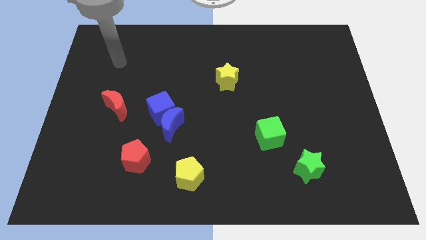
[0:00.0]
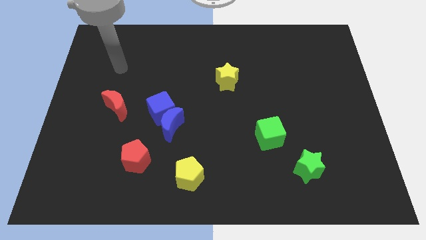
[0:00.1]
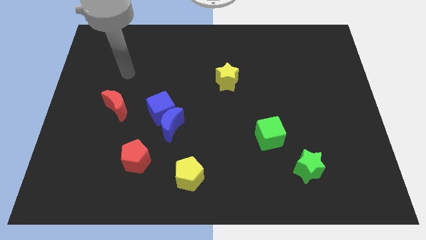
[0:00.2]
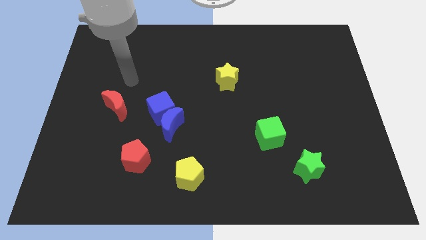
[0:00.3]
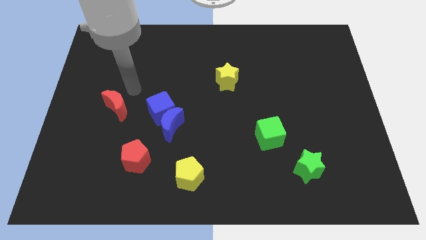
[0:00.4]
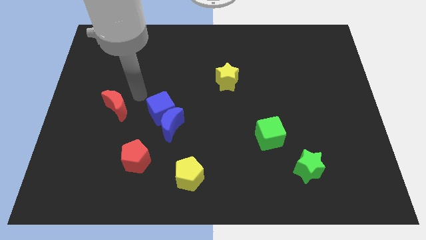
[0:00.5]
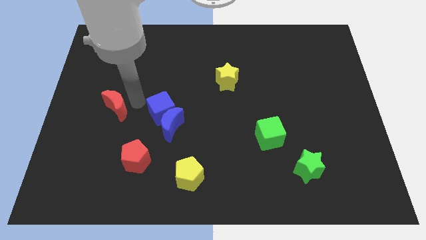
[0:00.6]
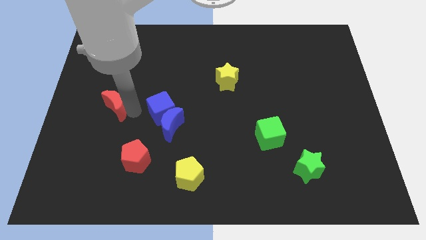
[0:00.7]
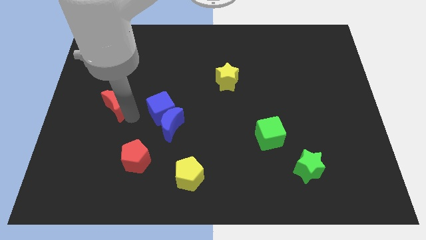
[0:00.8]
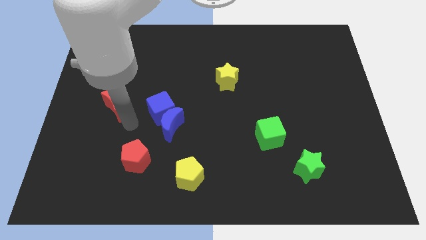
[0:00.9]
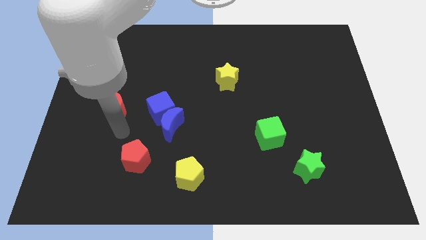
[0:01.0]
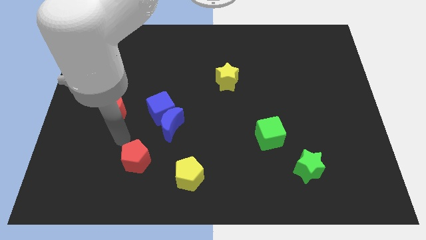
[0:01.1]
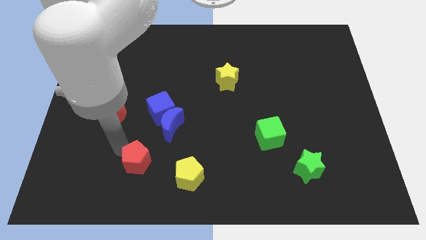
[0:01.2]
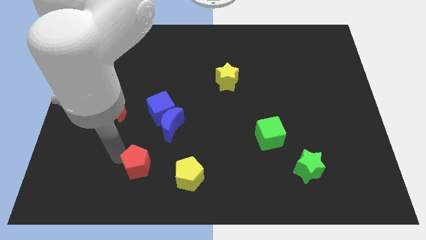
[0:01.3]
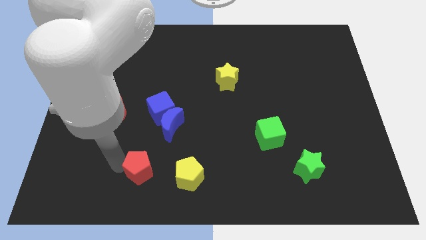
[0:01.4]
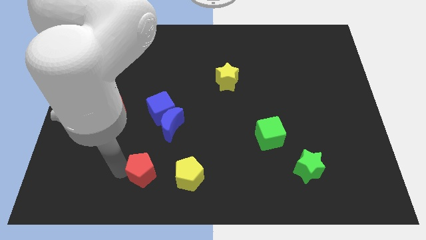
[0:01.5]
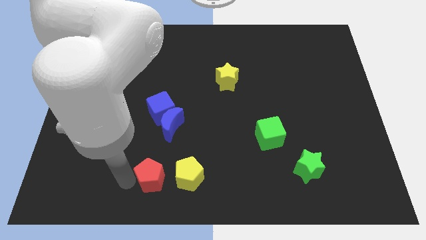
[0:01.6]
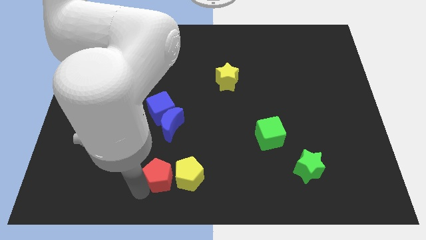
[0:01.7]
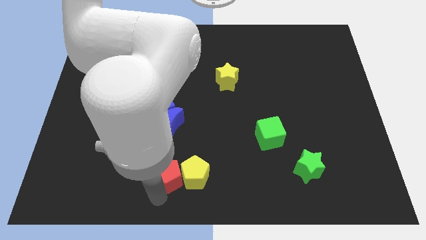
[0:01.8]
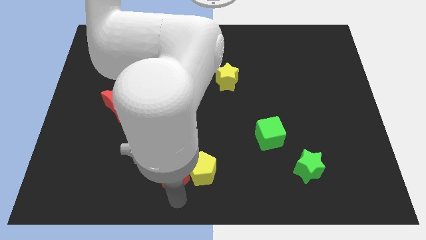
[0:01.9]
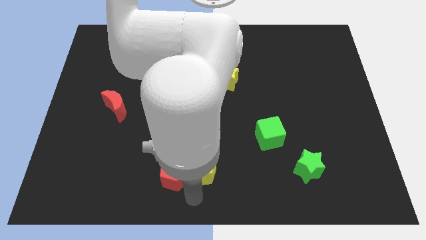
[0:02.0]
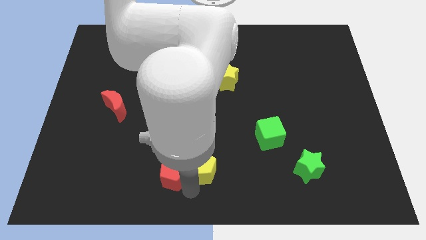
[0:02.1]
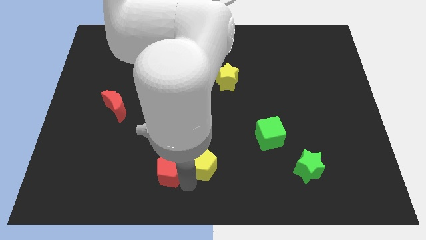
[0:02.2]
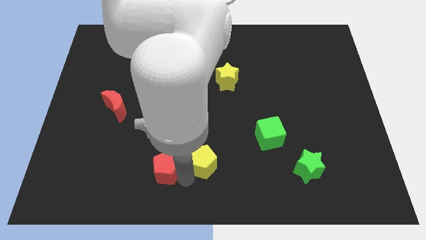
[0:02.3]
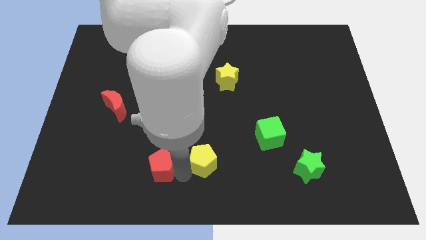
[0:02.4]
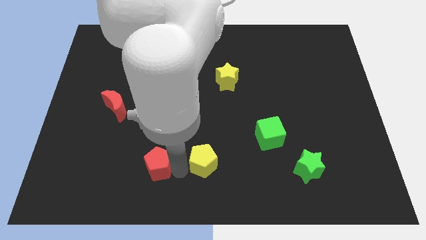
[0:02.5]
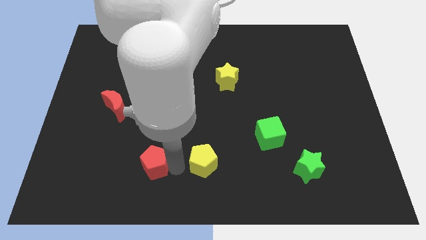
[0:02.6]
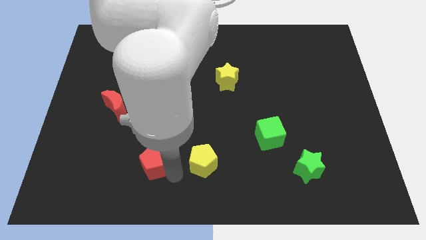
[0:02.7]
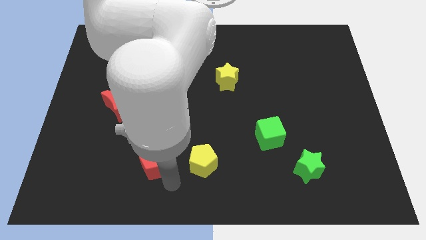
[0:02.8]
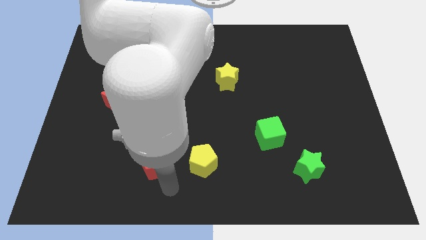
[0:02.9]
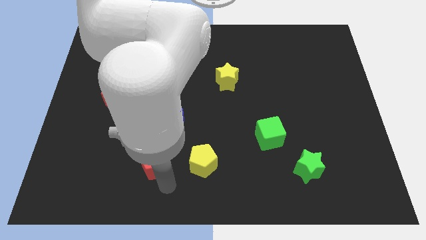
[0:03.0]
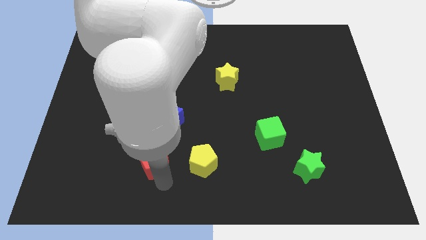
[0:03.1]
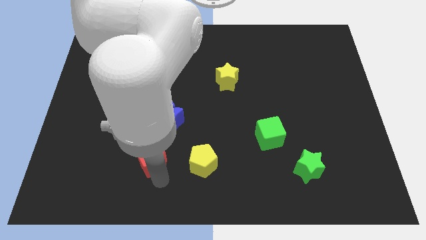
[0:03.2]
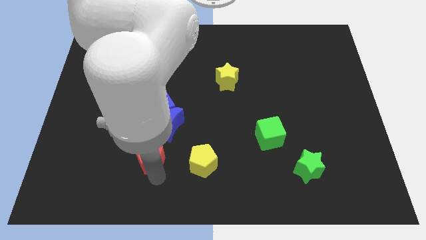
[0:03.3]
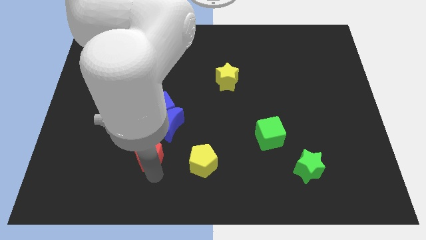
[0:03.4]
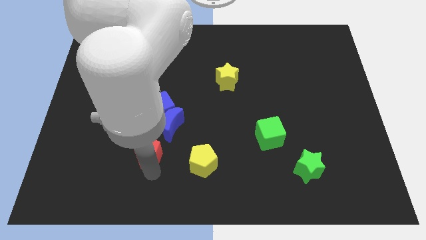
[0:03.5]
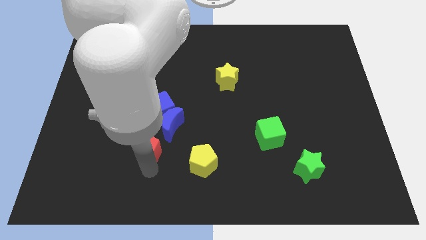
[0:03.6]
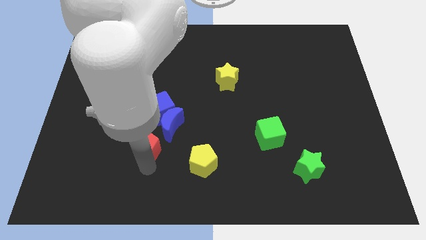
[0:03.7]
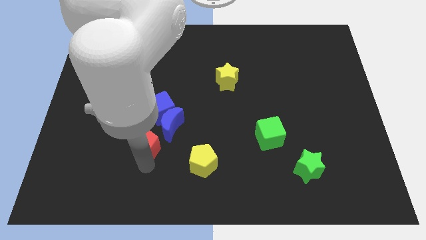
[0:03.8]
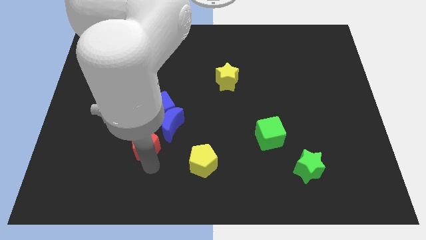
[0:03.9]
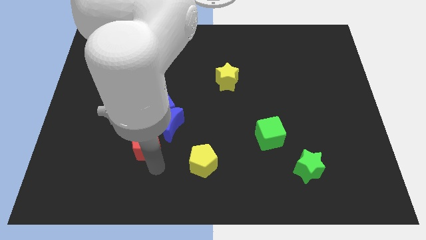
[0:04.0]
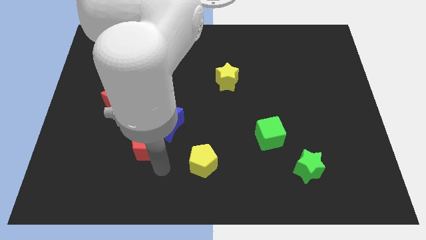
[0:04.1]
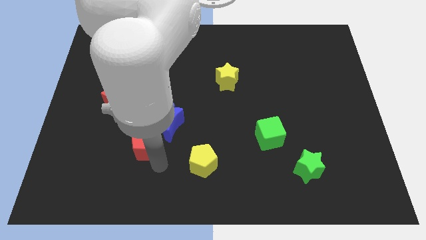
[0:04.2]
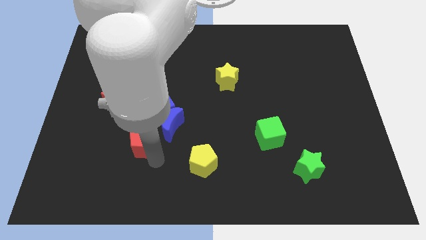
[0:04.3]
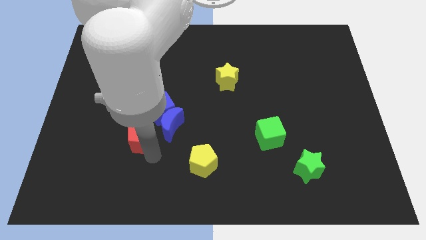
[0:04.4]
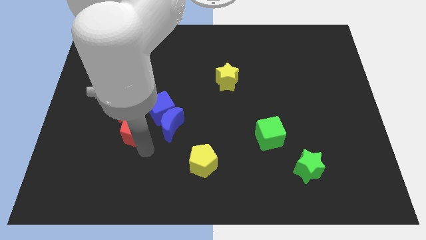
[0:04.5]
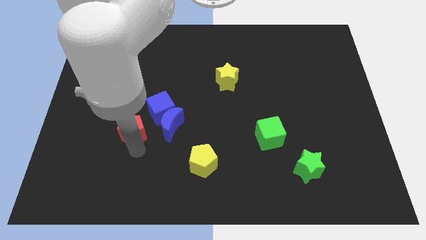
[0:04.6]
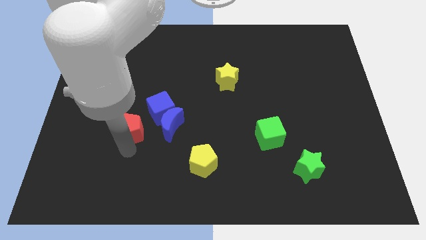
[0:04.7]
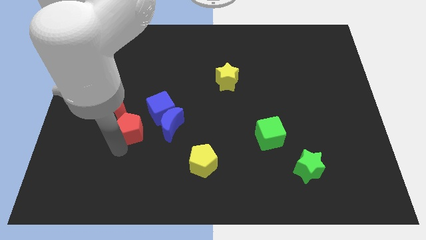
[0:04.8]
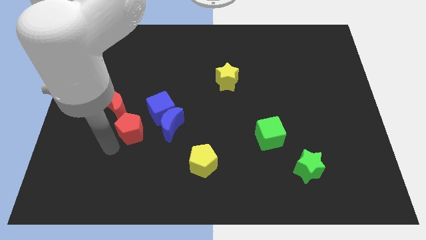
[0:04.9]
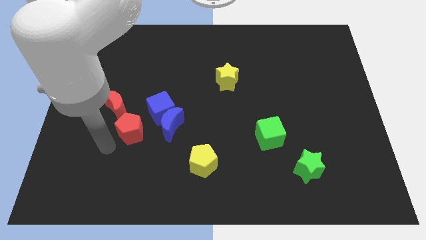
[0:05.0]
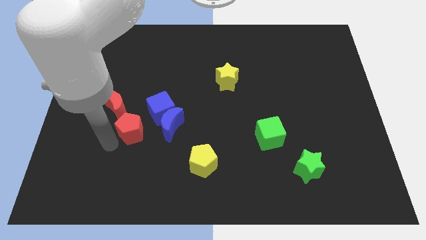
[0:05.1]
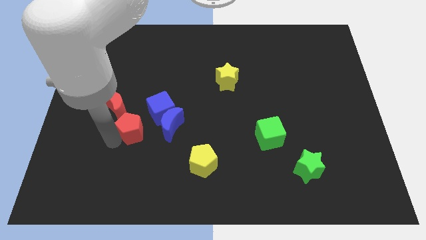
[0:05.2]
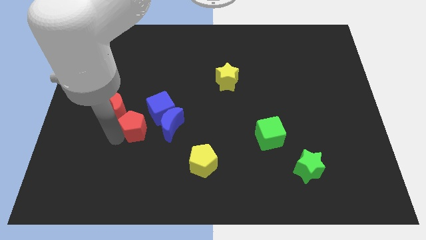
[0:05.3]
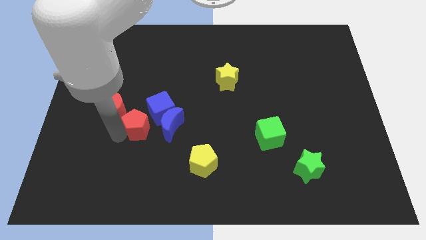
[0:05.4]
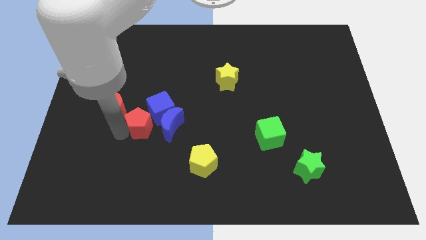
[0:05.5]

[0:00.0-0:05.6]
put the red pentagon to the blue cube

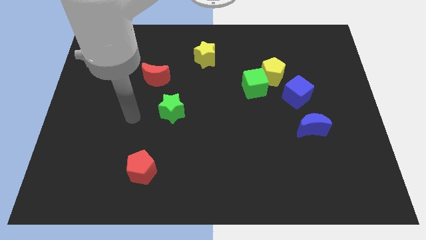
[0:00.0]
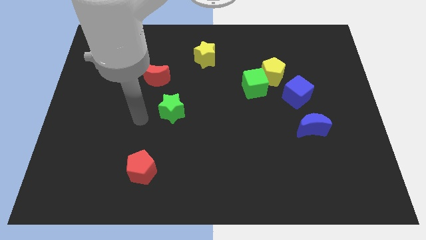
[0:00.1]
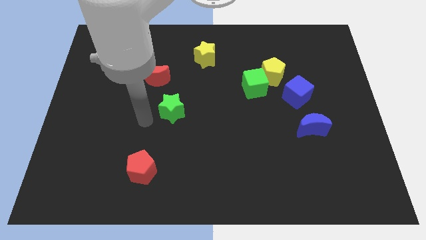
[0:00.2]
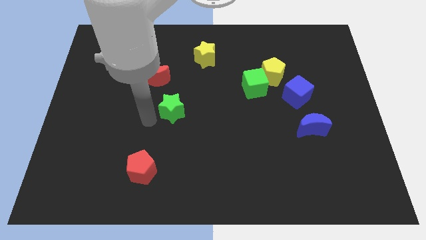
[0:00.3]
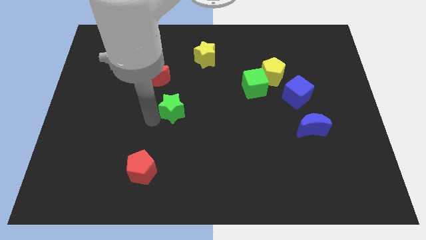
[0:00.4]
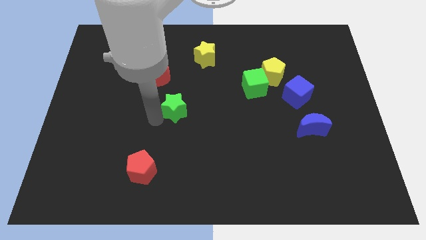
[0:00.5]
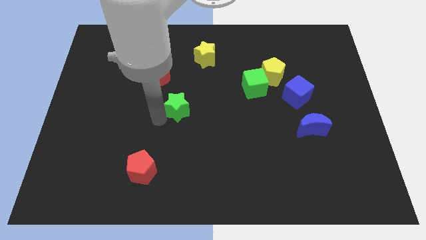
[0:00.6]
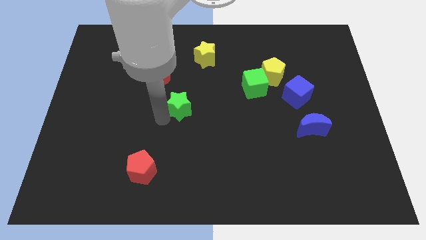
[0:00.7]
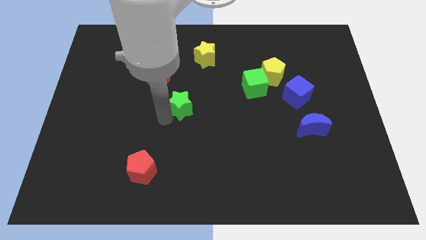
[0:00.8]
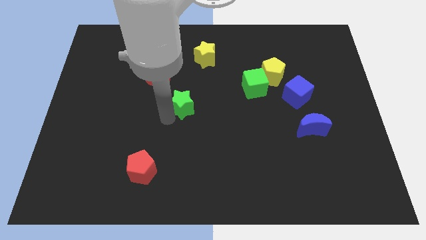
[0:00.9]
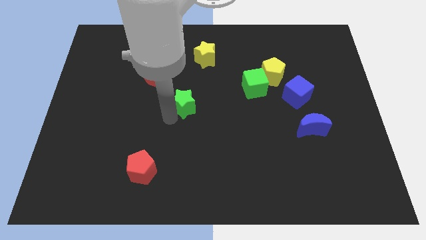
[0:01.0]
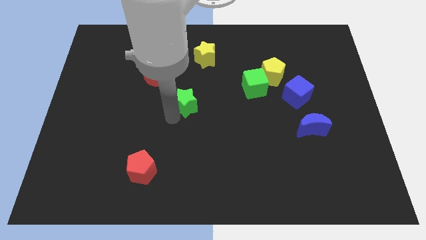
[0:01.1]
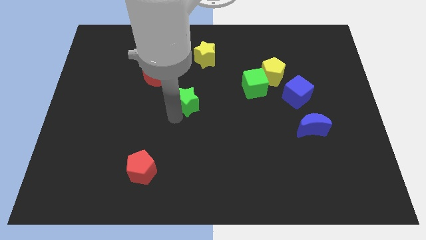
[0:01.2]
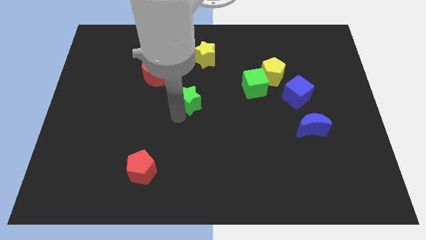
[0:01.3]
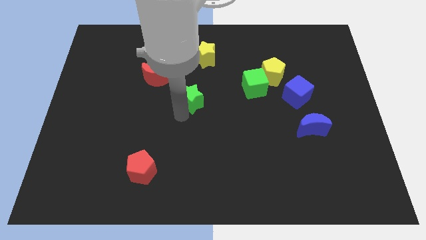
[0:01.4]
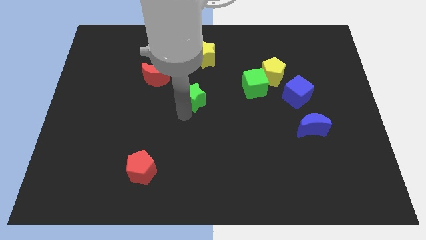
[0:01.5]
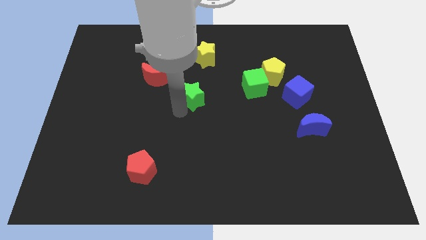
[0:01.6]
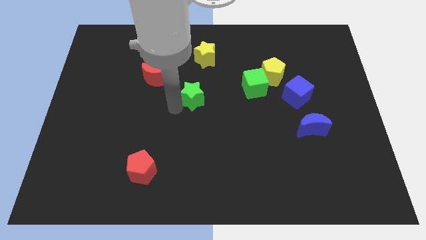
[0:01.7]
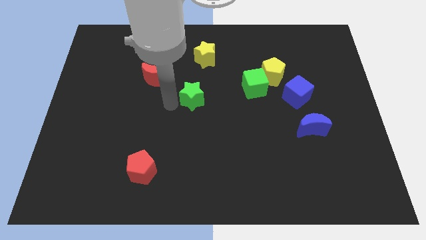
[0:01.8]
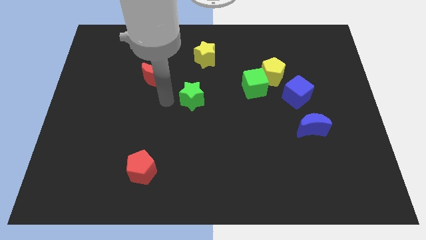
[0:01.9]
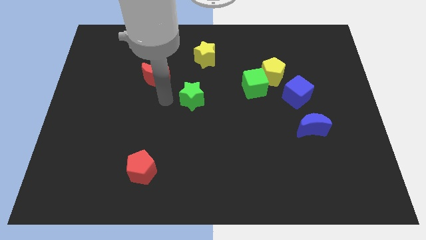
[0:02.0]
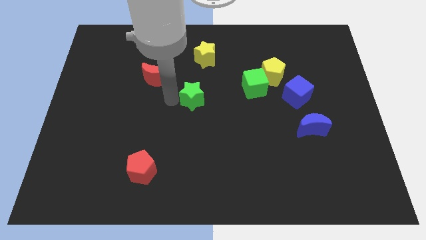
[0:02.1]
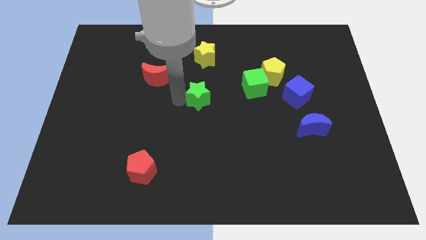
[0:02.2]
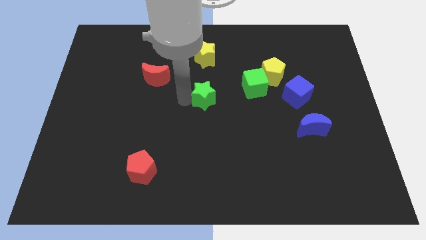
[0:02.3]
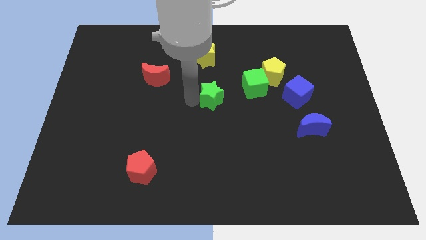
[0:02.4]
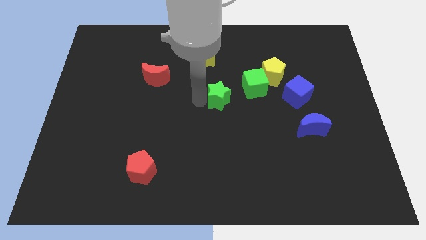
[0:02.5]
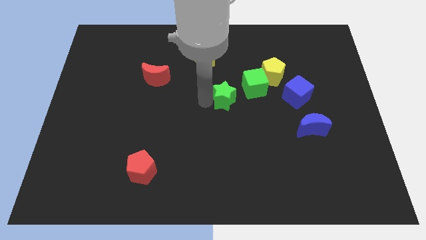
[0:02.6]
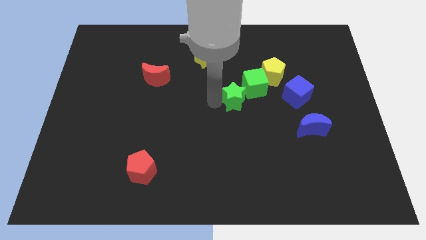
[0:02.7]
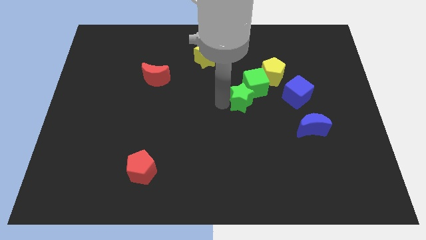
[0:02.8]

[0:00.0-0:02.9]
push the green star next to the green cube

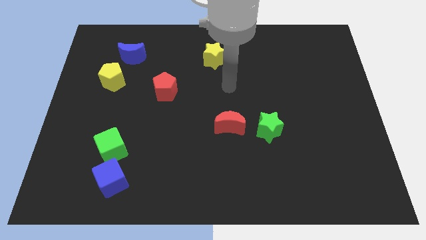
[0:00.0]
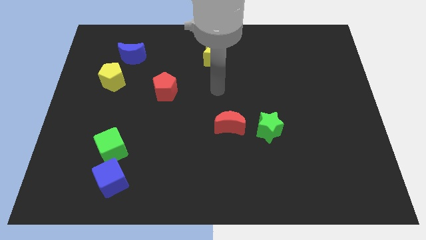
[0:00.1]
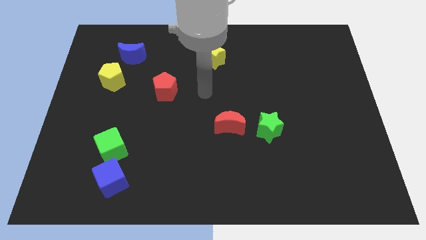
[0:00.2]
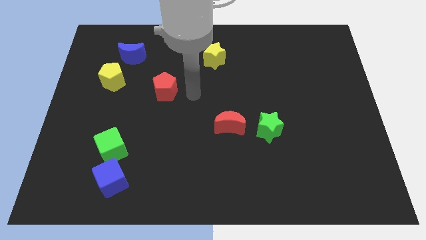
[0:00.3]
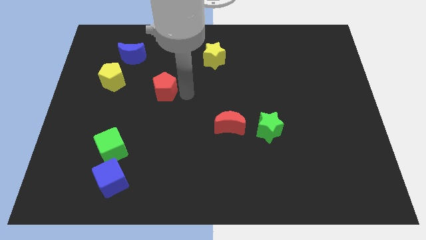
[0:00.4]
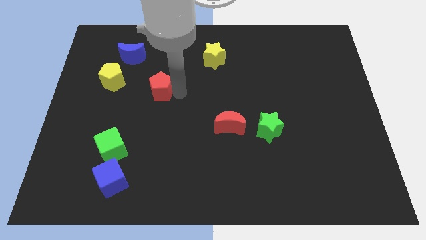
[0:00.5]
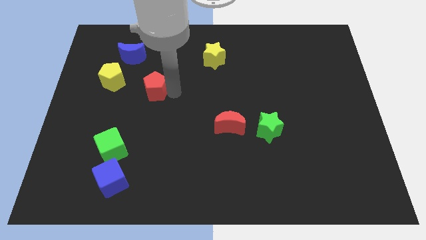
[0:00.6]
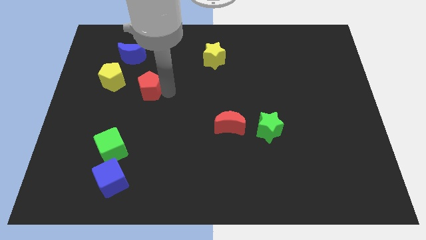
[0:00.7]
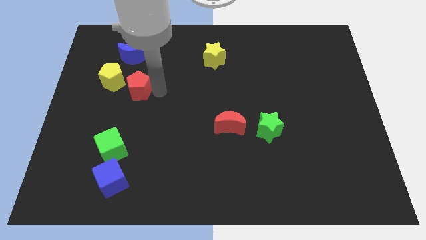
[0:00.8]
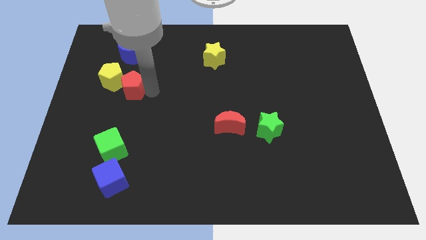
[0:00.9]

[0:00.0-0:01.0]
move the red pentagon to the yellow pentagon
